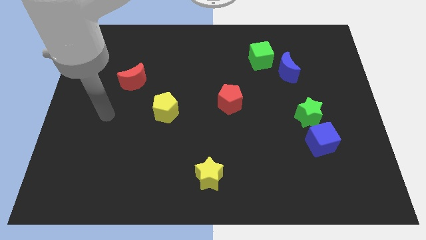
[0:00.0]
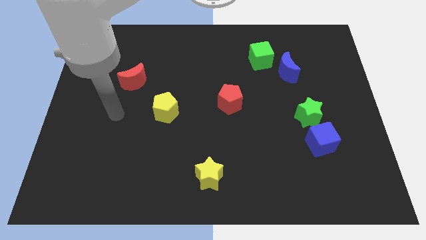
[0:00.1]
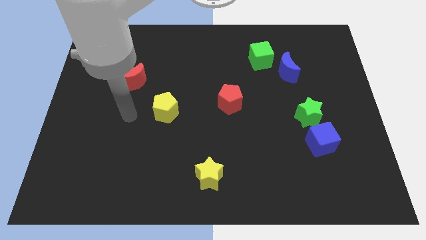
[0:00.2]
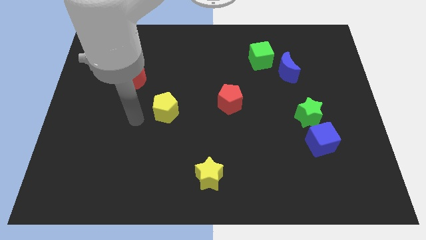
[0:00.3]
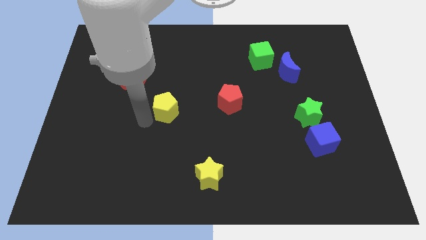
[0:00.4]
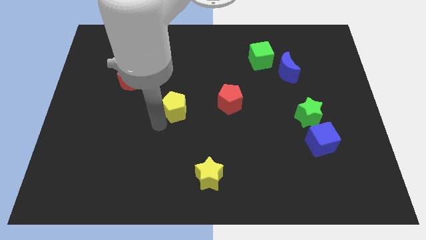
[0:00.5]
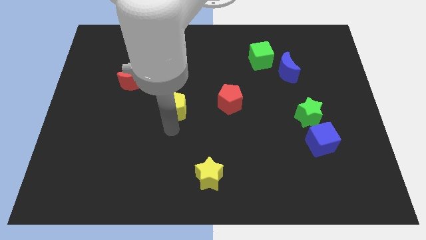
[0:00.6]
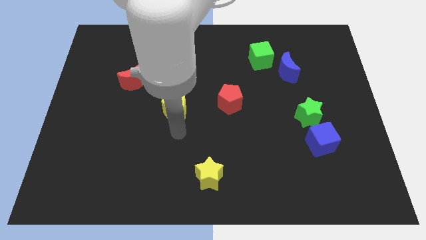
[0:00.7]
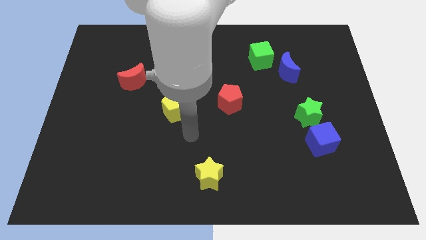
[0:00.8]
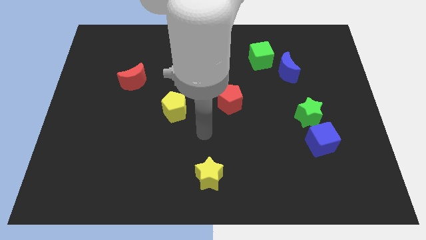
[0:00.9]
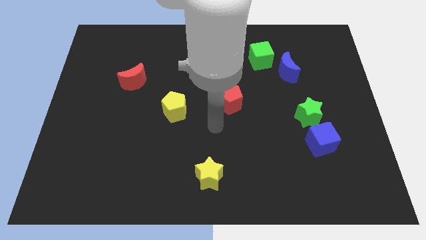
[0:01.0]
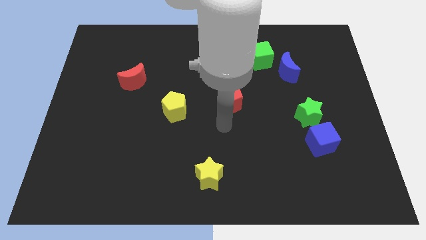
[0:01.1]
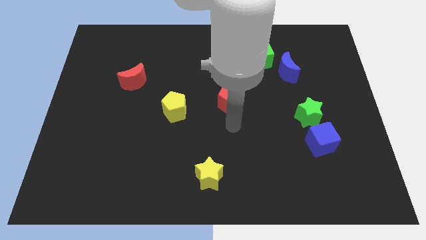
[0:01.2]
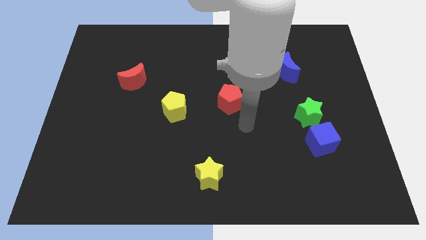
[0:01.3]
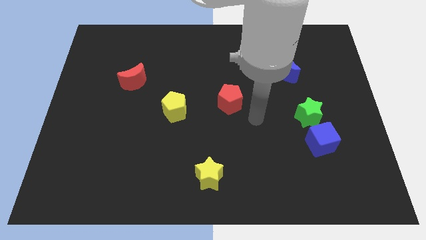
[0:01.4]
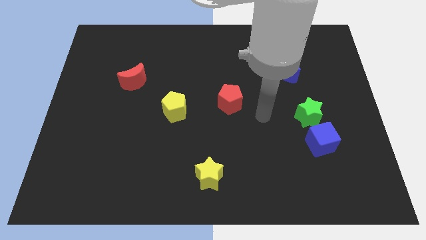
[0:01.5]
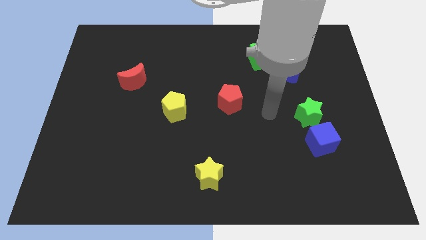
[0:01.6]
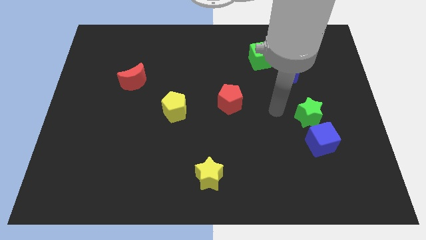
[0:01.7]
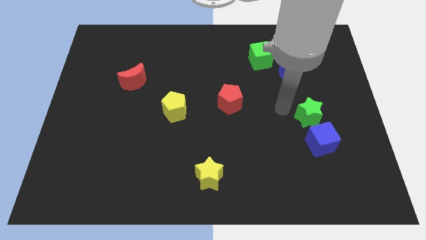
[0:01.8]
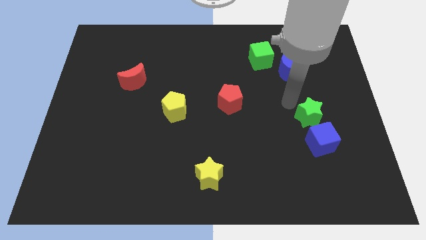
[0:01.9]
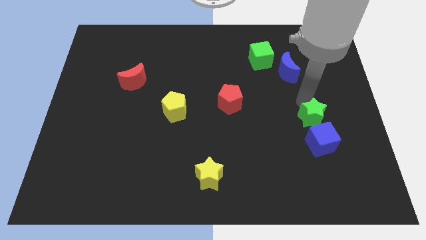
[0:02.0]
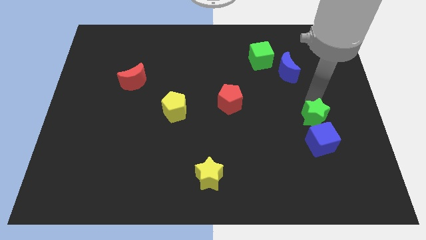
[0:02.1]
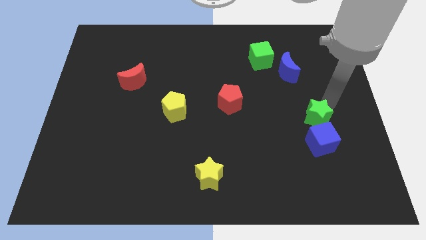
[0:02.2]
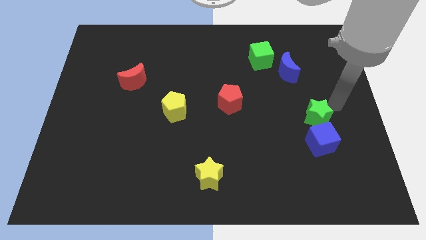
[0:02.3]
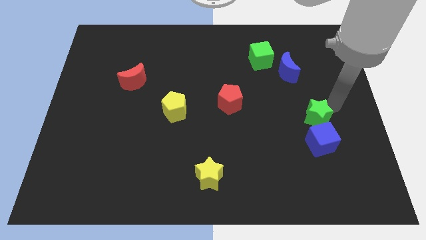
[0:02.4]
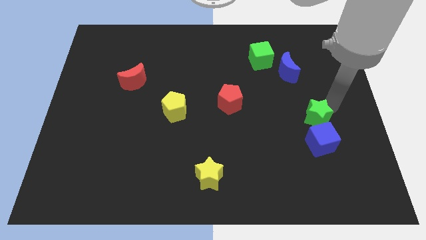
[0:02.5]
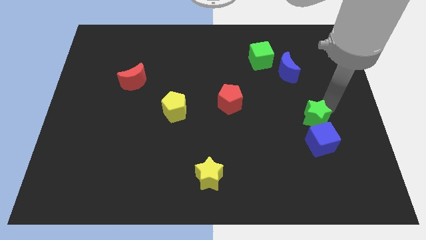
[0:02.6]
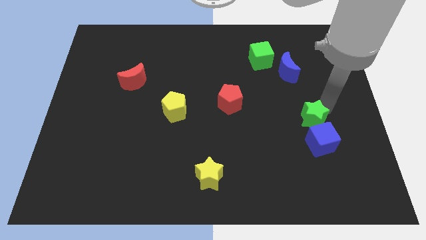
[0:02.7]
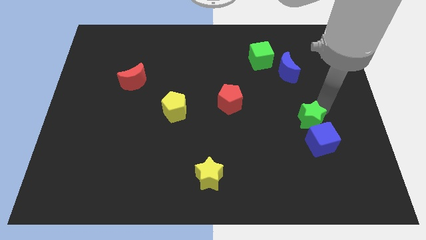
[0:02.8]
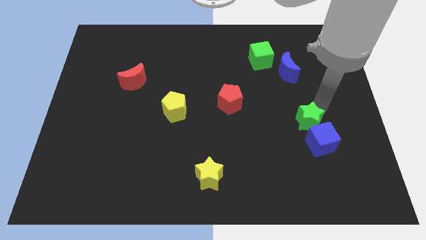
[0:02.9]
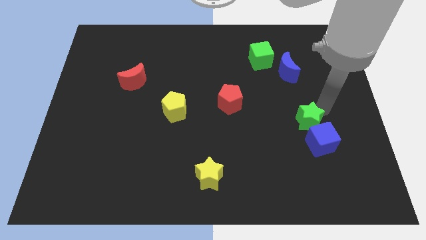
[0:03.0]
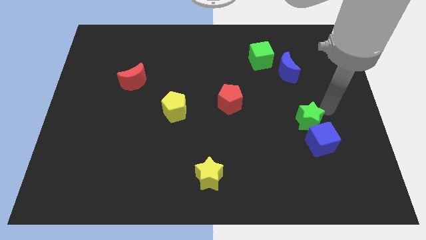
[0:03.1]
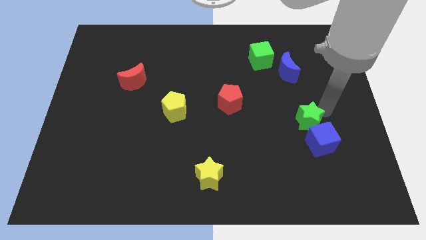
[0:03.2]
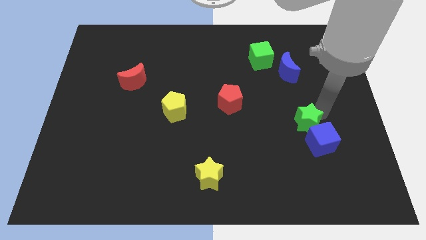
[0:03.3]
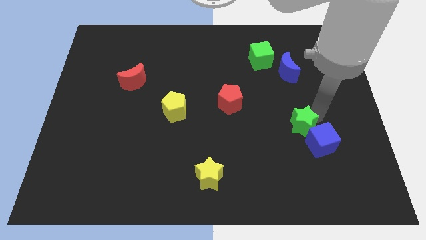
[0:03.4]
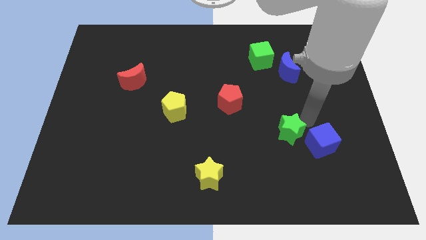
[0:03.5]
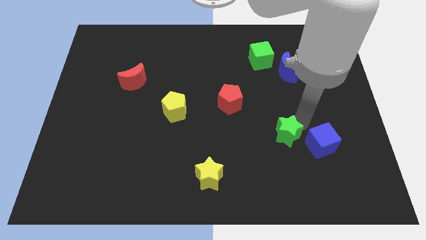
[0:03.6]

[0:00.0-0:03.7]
push the green star downwards and then to the left a bit

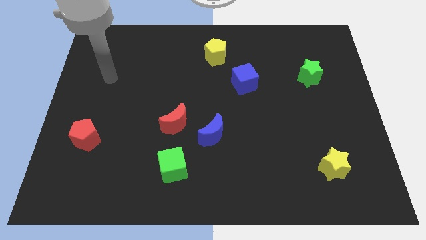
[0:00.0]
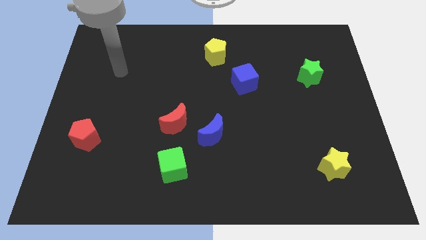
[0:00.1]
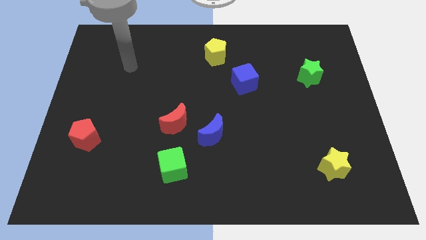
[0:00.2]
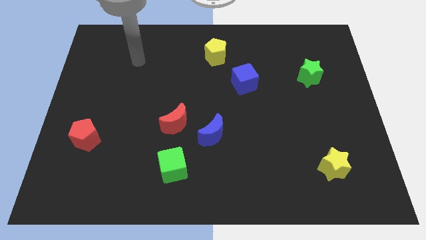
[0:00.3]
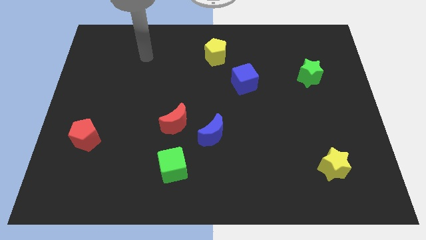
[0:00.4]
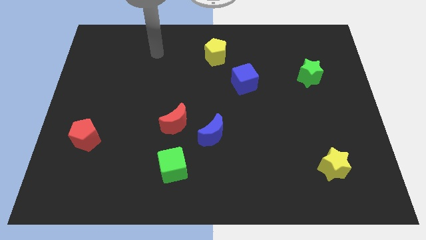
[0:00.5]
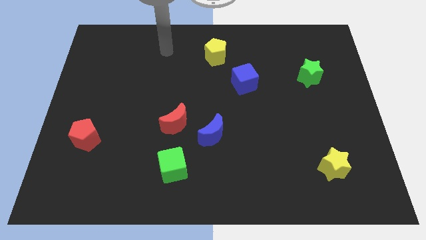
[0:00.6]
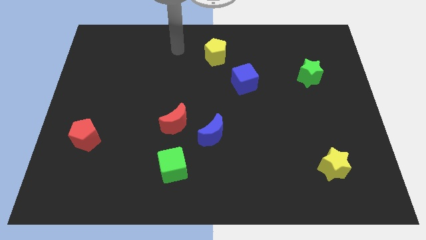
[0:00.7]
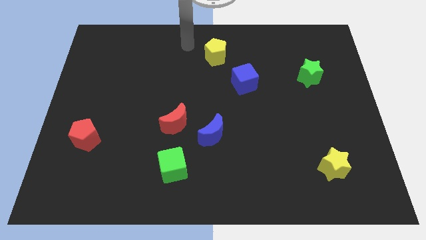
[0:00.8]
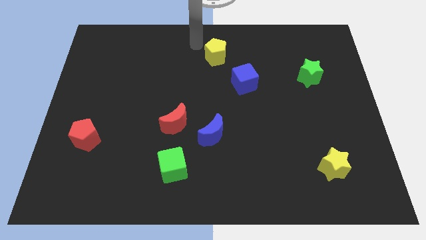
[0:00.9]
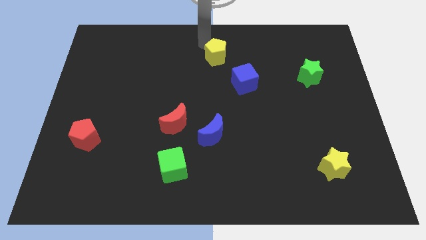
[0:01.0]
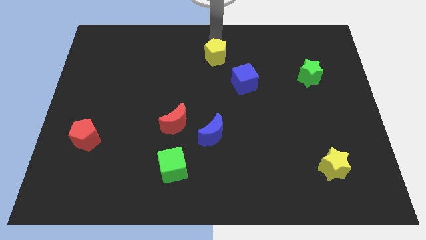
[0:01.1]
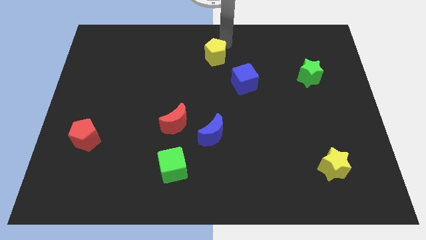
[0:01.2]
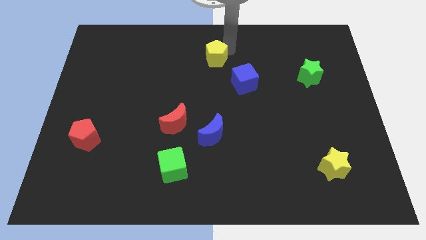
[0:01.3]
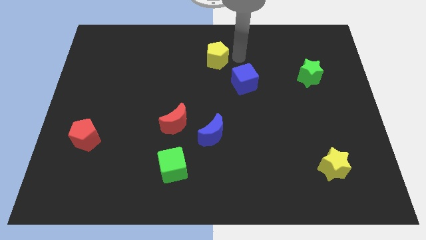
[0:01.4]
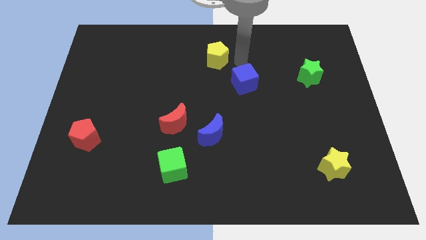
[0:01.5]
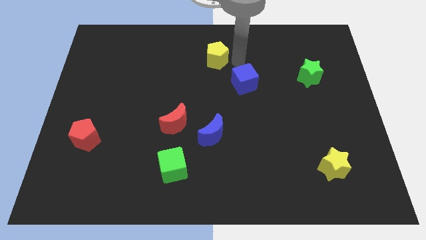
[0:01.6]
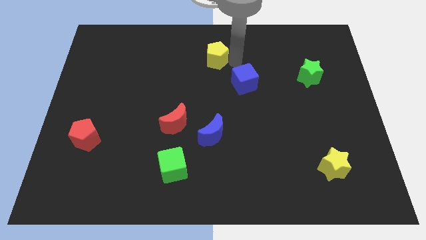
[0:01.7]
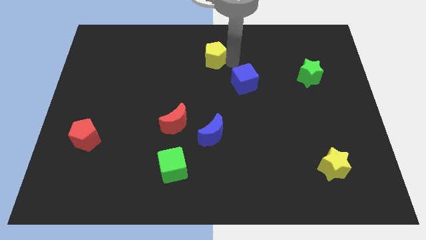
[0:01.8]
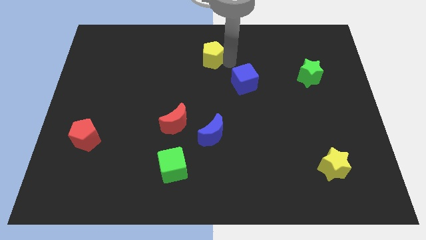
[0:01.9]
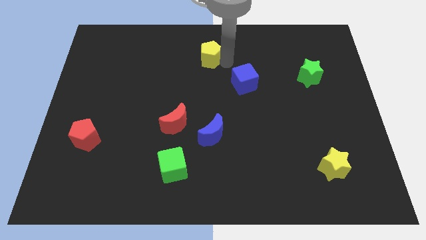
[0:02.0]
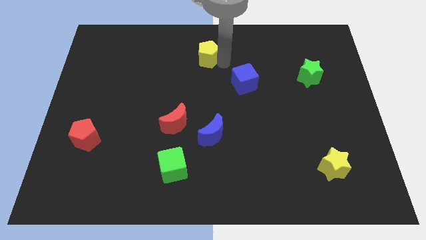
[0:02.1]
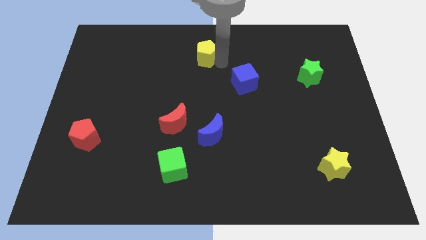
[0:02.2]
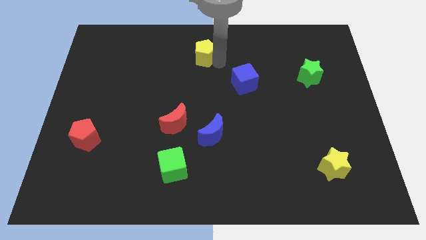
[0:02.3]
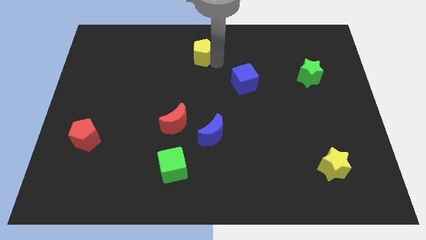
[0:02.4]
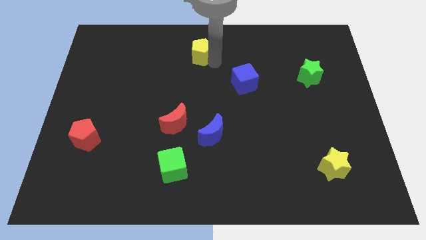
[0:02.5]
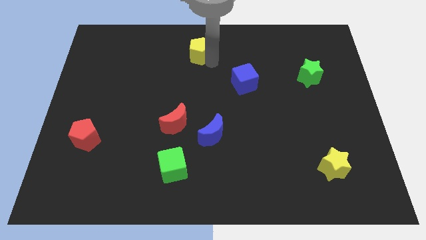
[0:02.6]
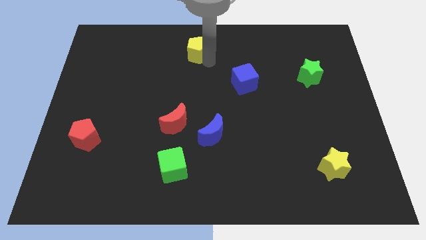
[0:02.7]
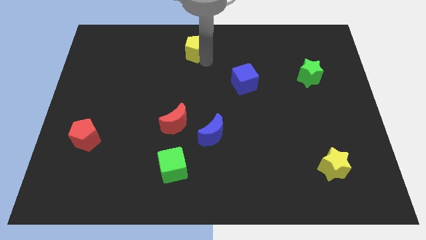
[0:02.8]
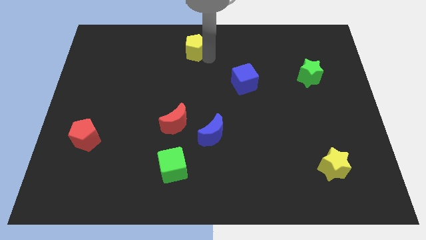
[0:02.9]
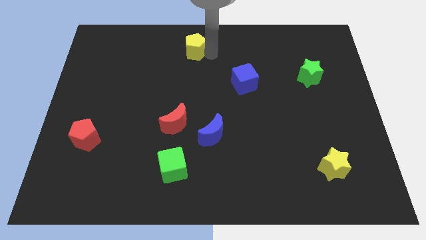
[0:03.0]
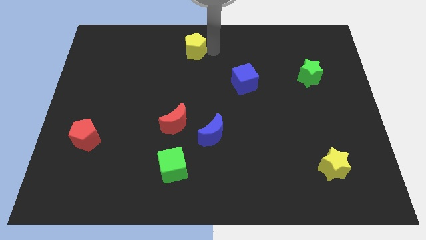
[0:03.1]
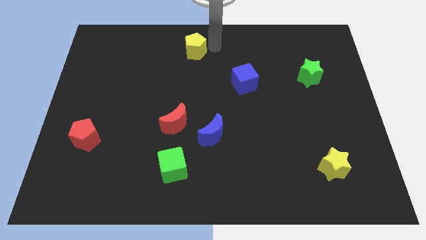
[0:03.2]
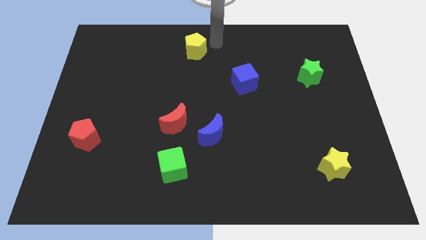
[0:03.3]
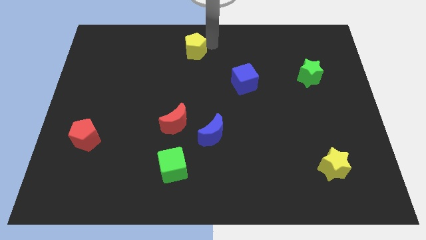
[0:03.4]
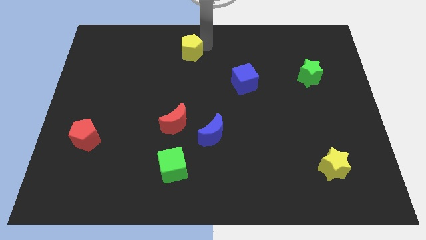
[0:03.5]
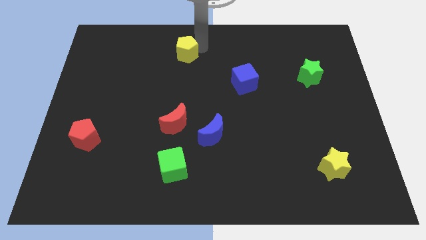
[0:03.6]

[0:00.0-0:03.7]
slightly slide the yellow pentagon left

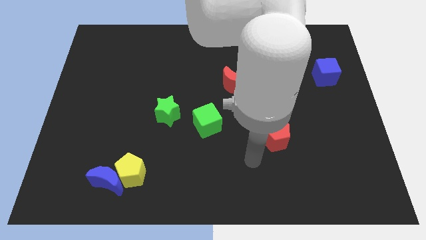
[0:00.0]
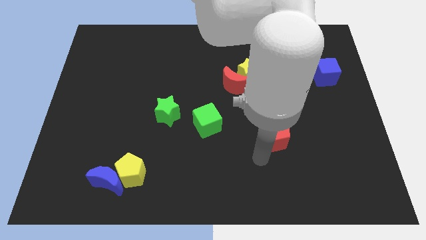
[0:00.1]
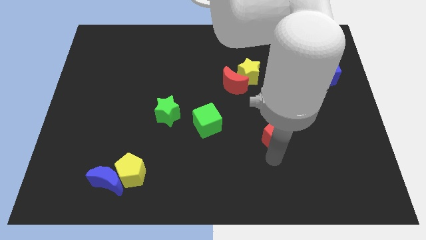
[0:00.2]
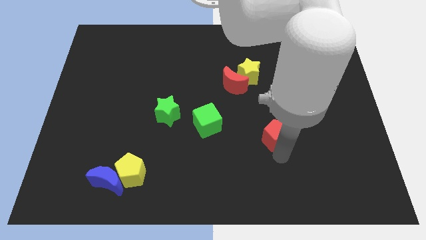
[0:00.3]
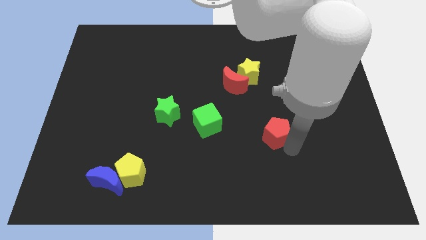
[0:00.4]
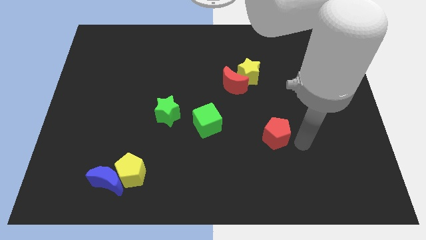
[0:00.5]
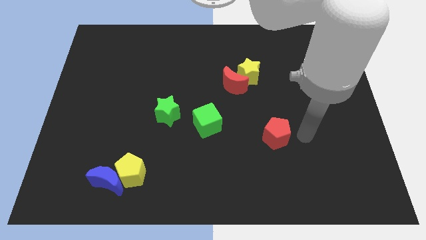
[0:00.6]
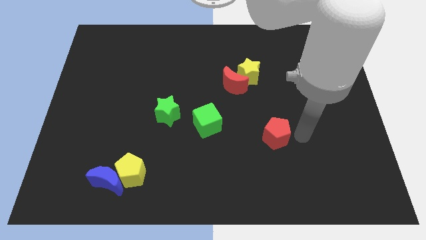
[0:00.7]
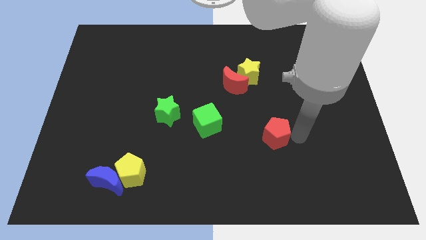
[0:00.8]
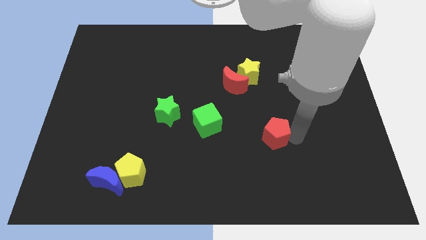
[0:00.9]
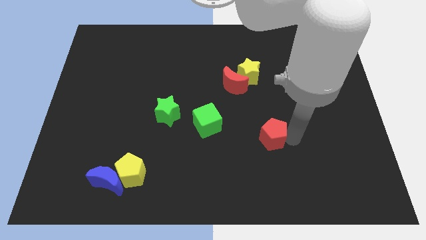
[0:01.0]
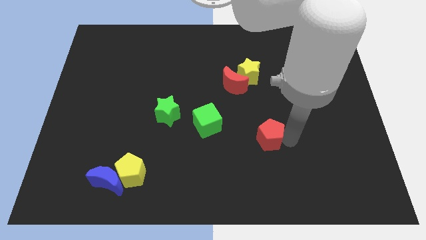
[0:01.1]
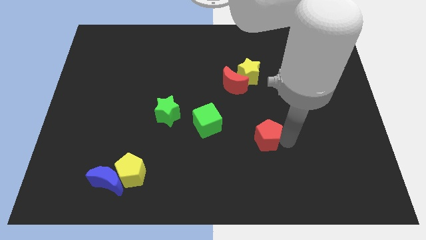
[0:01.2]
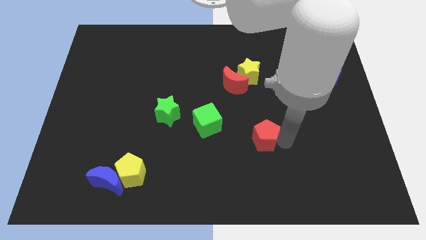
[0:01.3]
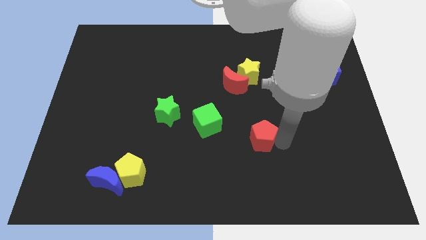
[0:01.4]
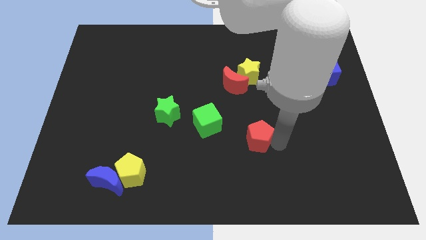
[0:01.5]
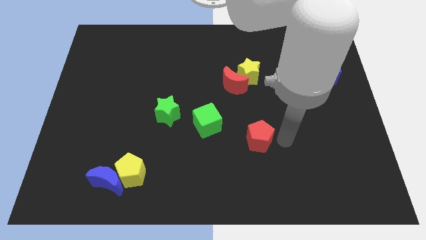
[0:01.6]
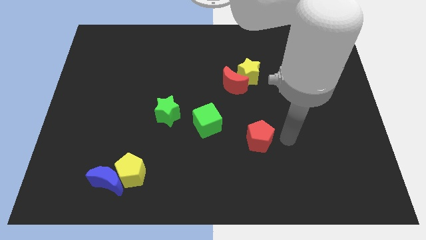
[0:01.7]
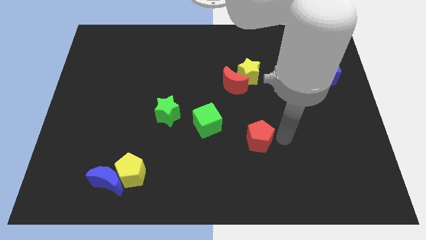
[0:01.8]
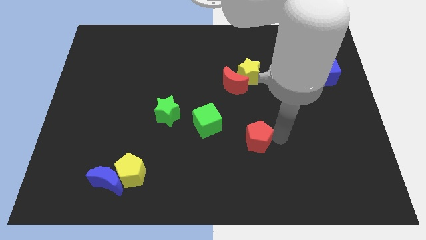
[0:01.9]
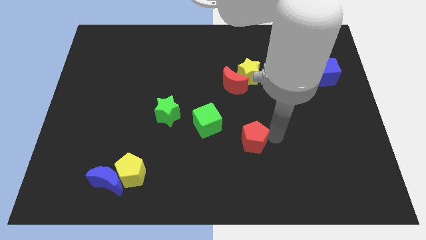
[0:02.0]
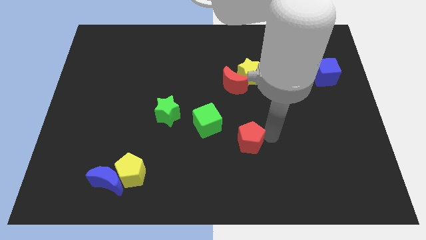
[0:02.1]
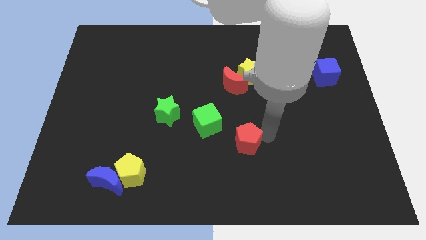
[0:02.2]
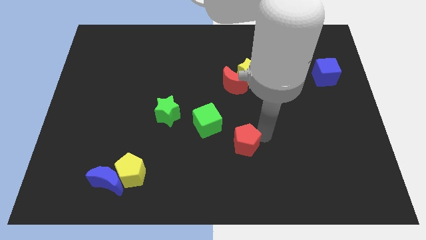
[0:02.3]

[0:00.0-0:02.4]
slightly push the red pentagon to the left
